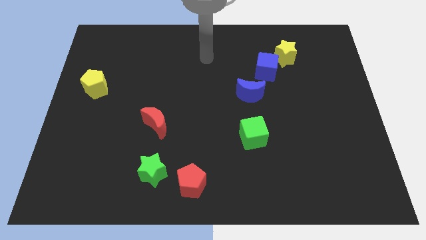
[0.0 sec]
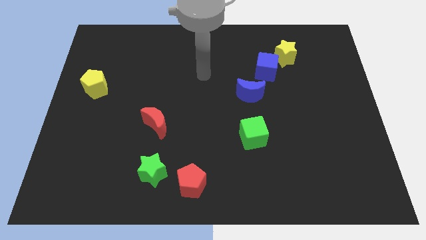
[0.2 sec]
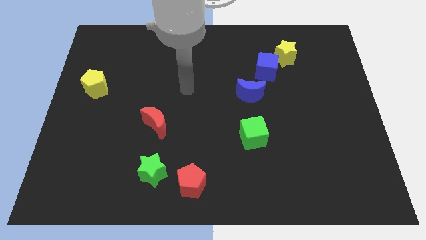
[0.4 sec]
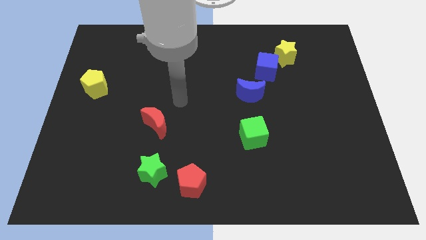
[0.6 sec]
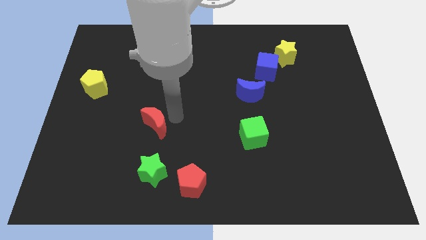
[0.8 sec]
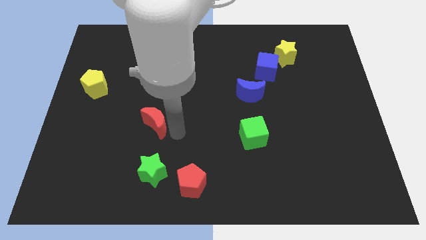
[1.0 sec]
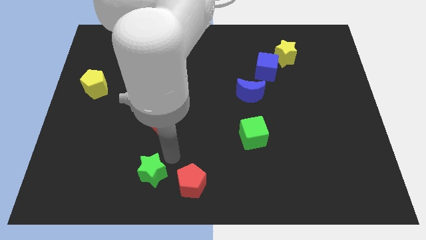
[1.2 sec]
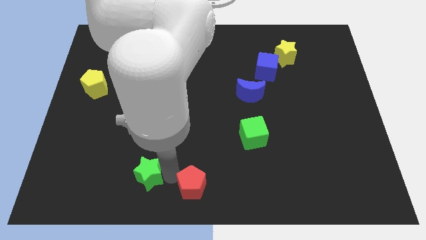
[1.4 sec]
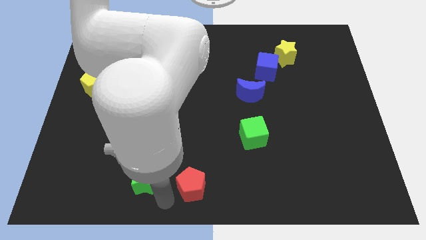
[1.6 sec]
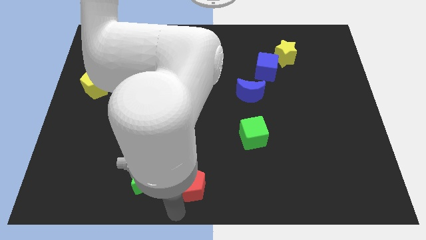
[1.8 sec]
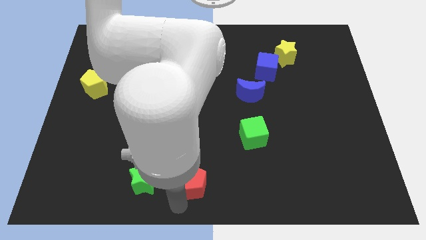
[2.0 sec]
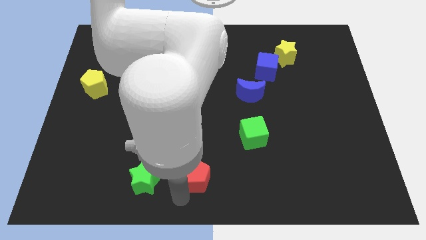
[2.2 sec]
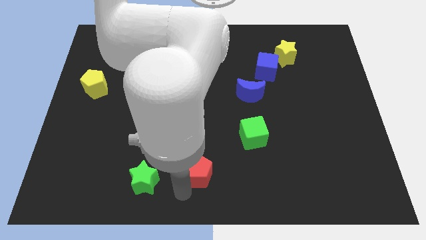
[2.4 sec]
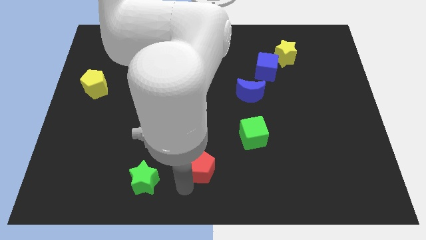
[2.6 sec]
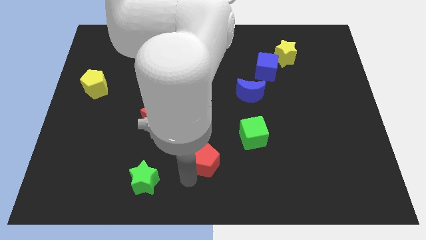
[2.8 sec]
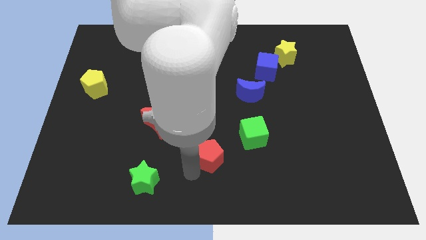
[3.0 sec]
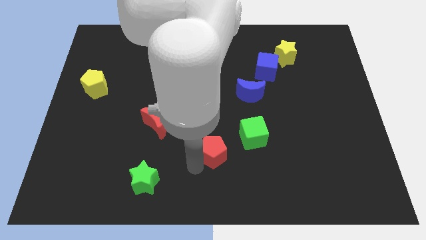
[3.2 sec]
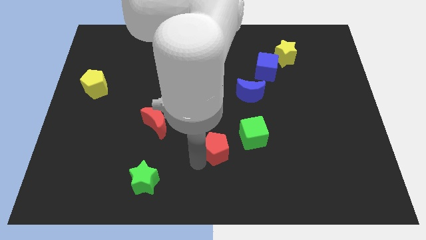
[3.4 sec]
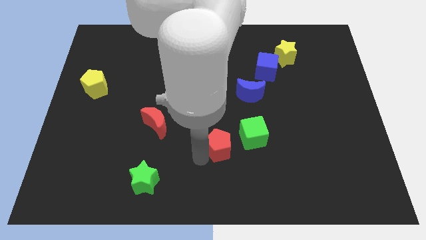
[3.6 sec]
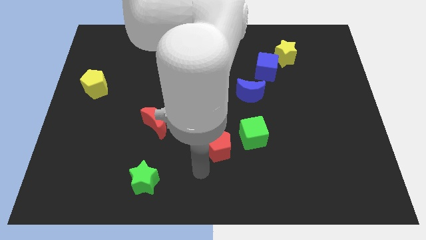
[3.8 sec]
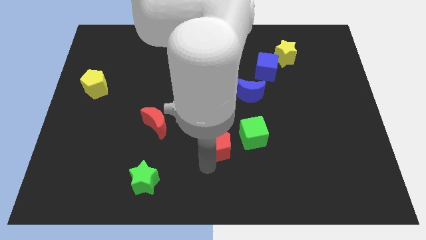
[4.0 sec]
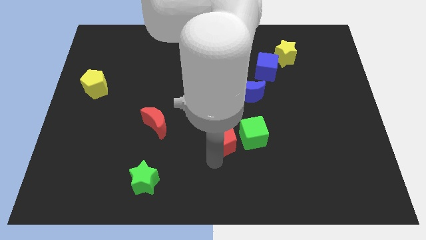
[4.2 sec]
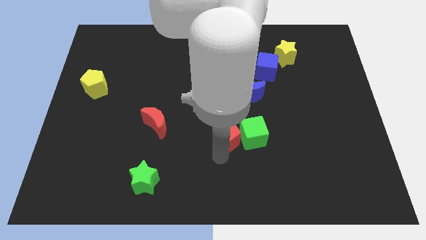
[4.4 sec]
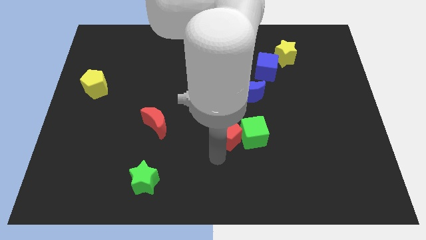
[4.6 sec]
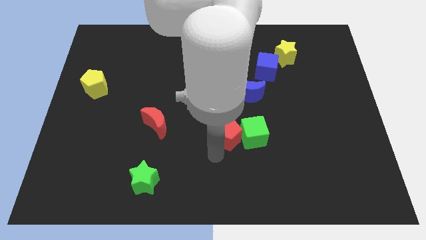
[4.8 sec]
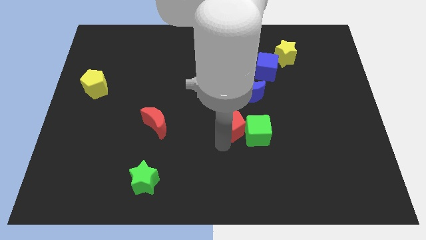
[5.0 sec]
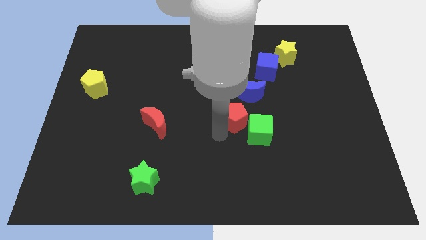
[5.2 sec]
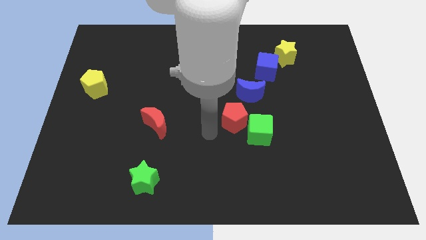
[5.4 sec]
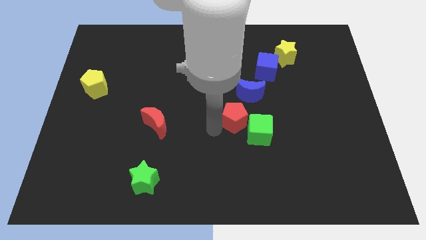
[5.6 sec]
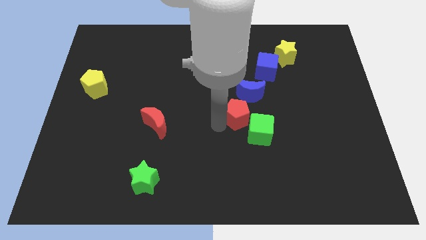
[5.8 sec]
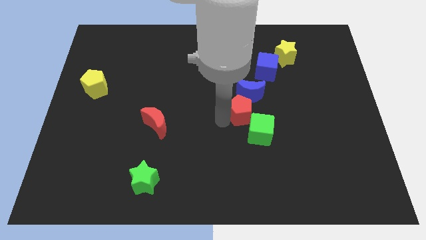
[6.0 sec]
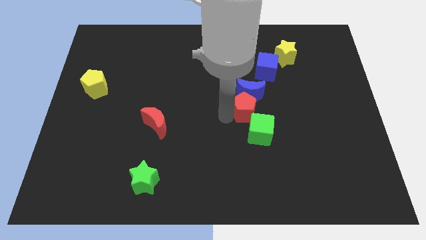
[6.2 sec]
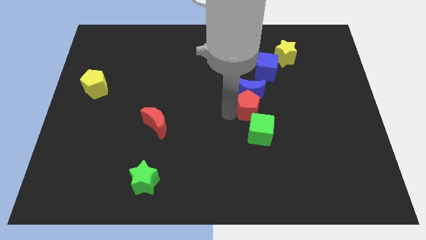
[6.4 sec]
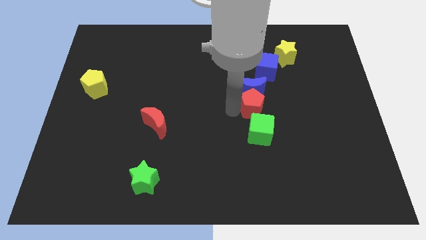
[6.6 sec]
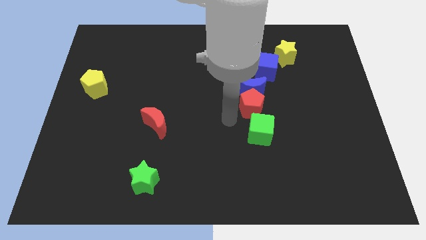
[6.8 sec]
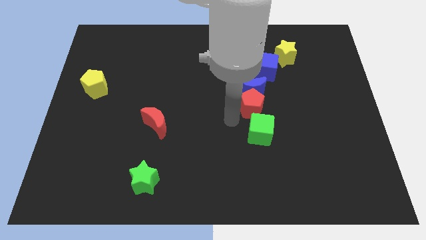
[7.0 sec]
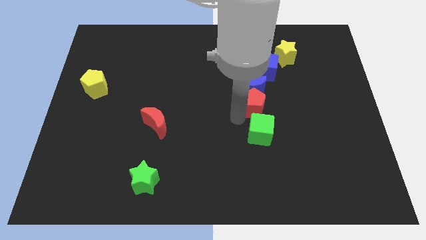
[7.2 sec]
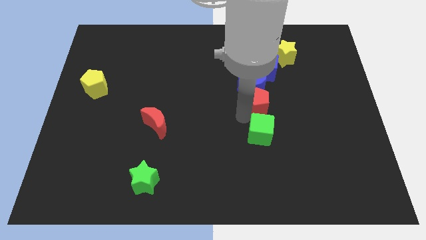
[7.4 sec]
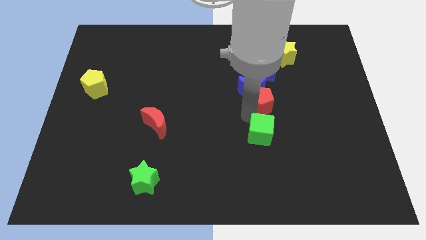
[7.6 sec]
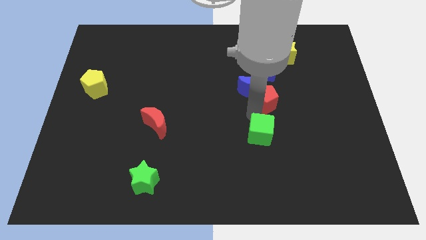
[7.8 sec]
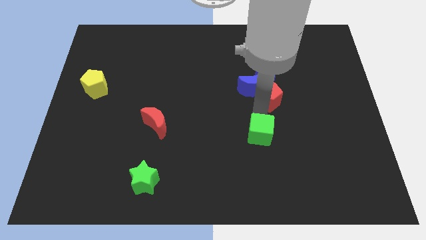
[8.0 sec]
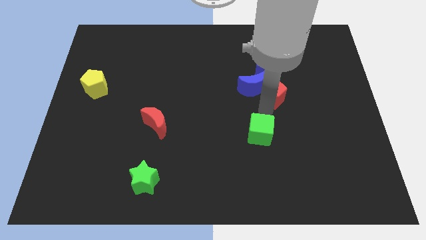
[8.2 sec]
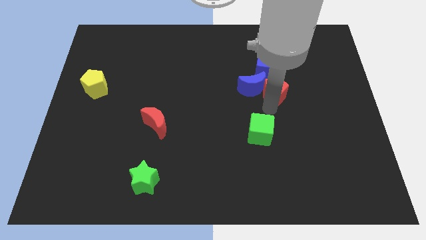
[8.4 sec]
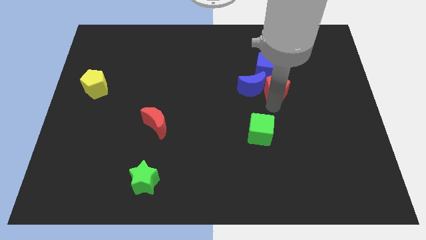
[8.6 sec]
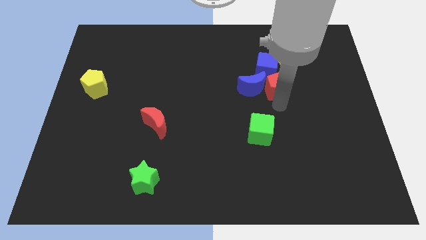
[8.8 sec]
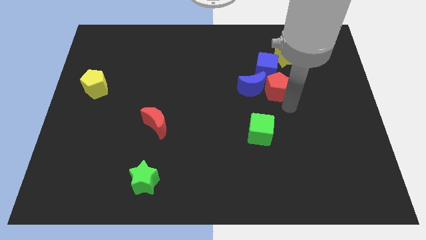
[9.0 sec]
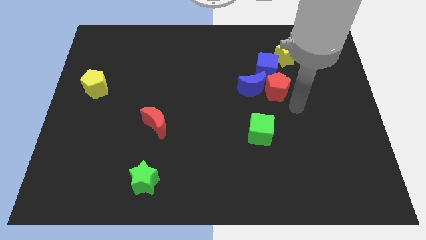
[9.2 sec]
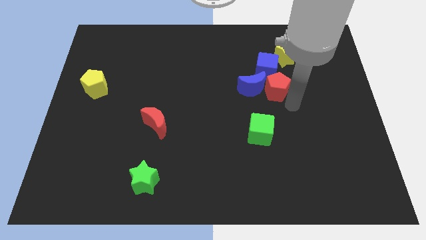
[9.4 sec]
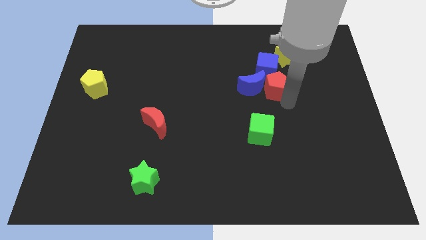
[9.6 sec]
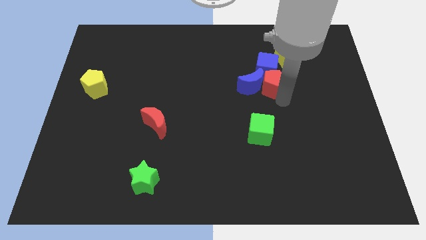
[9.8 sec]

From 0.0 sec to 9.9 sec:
put the red pentagon towards the blue cube

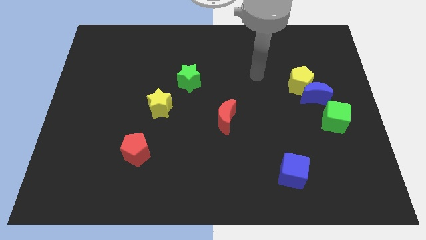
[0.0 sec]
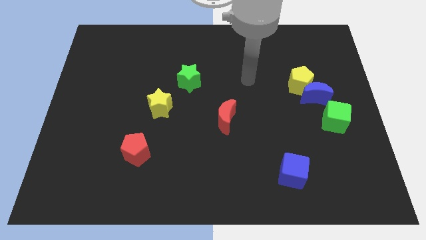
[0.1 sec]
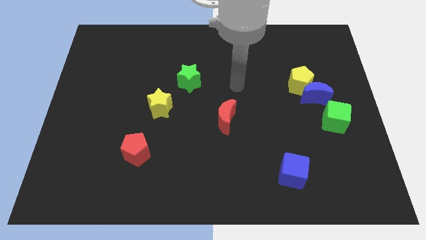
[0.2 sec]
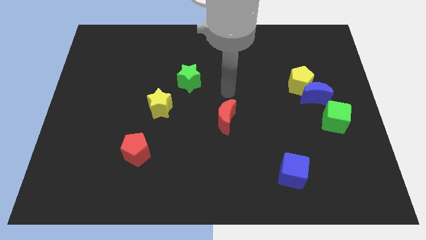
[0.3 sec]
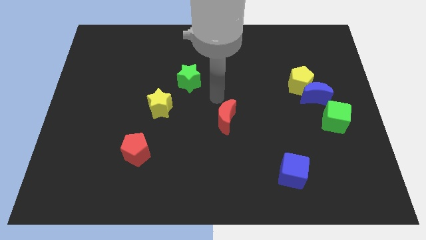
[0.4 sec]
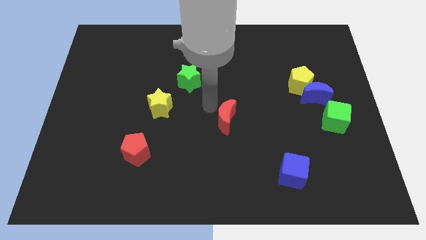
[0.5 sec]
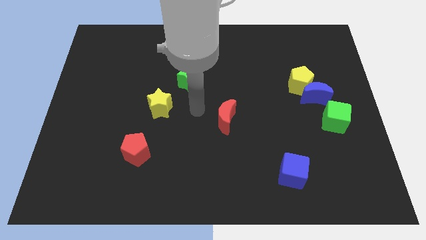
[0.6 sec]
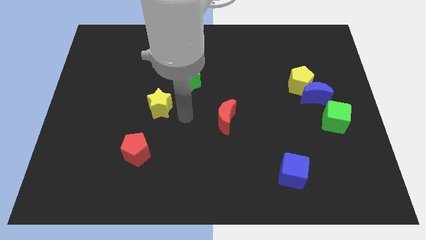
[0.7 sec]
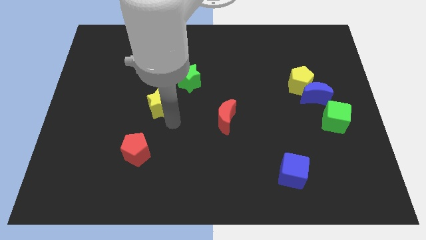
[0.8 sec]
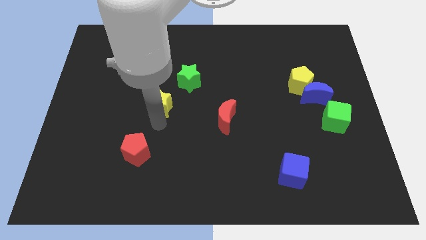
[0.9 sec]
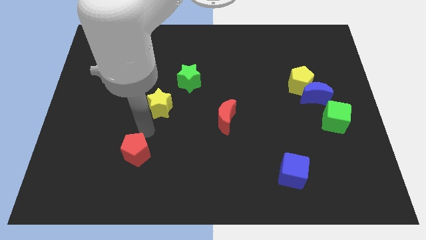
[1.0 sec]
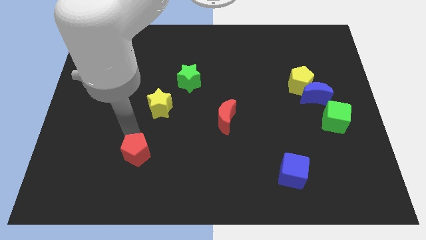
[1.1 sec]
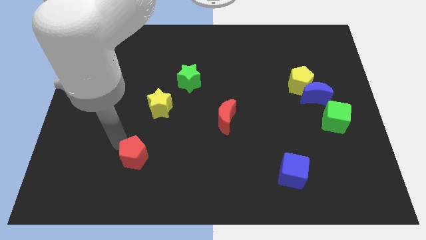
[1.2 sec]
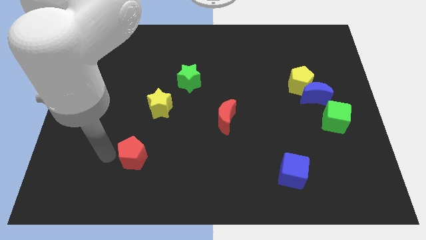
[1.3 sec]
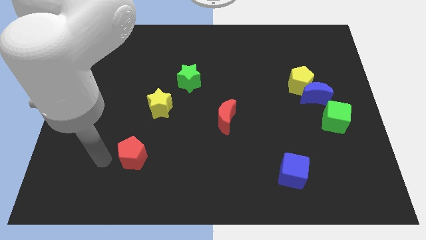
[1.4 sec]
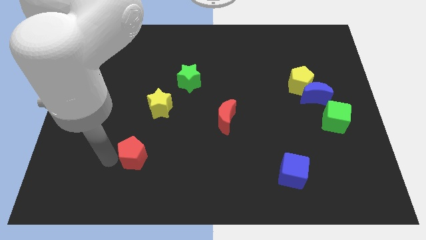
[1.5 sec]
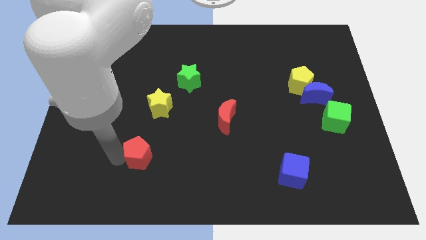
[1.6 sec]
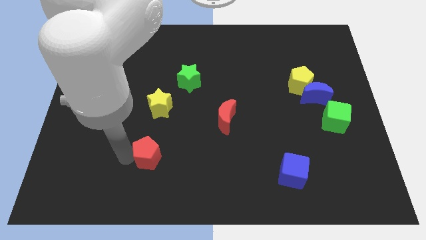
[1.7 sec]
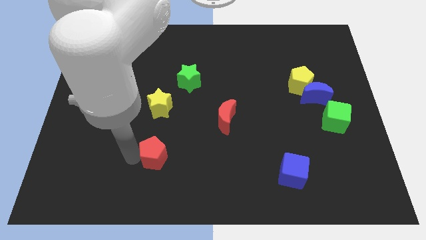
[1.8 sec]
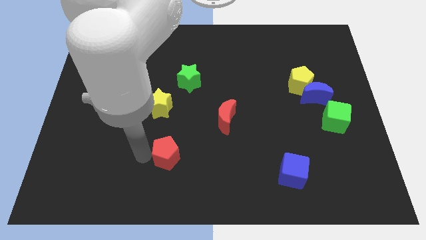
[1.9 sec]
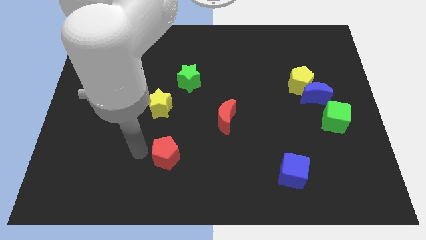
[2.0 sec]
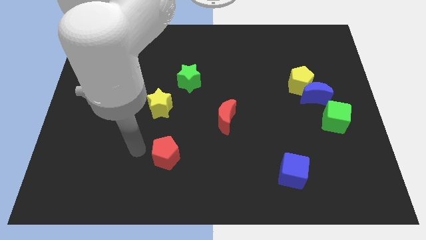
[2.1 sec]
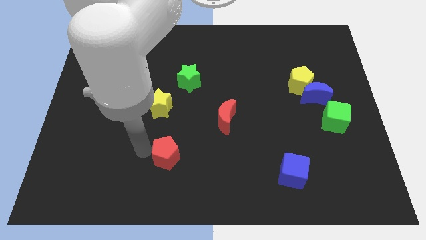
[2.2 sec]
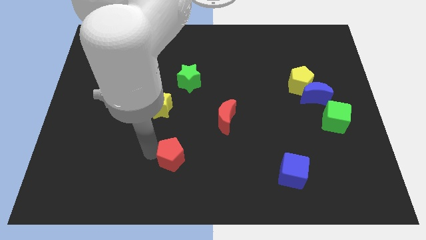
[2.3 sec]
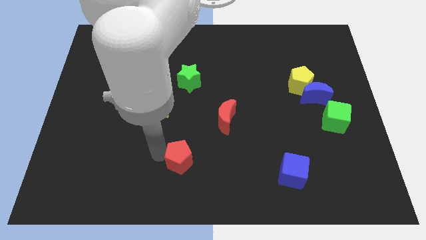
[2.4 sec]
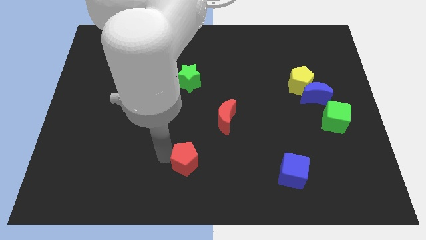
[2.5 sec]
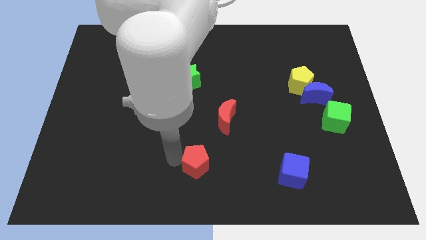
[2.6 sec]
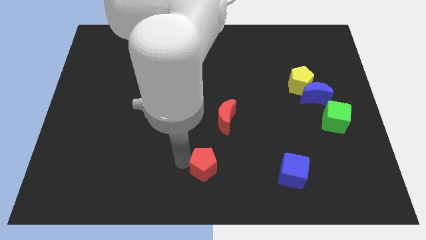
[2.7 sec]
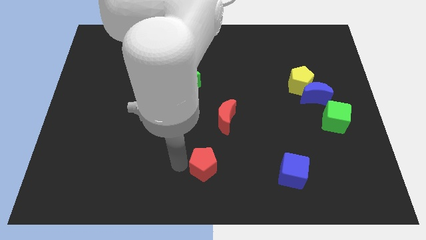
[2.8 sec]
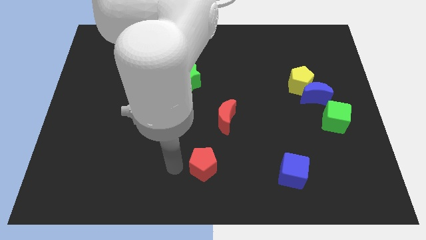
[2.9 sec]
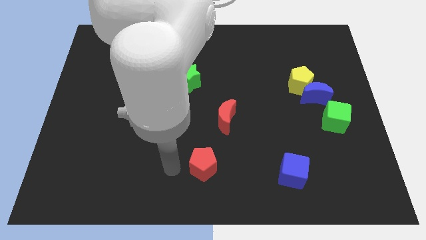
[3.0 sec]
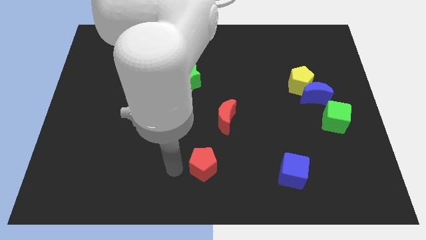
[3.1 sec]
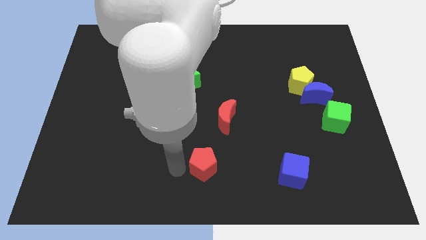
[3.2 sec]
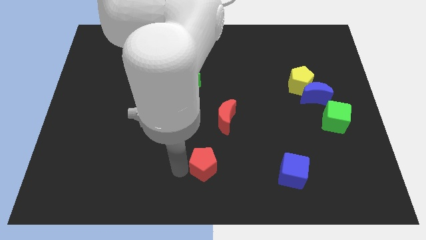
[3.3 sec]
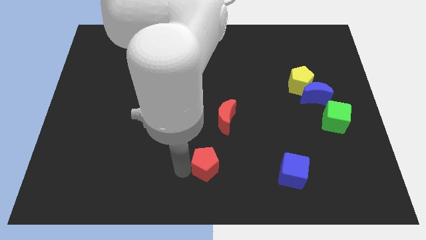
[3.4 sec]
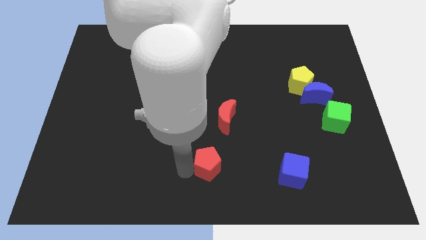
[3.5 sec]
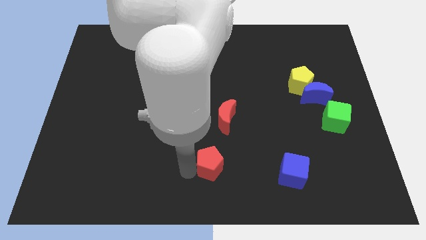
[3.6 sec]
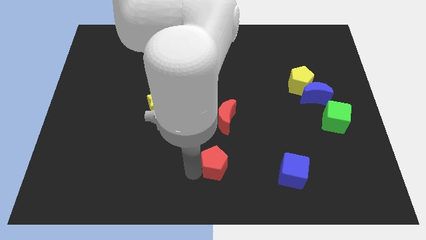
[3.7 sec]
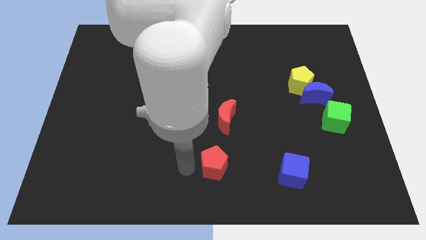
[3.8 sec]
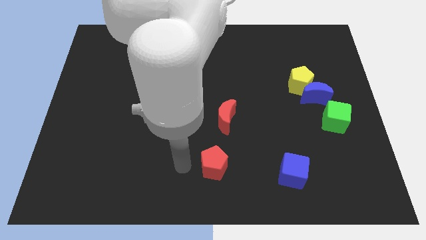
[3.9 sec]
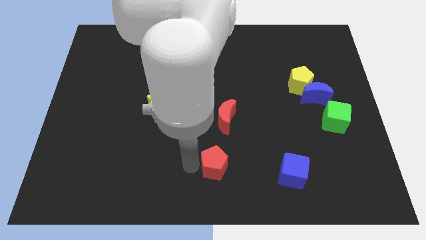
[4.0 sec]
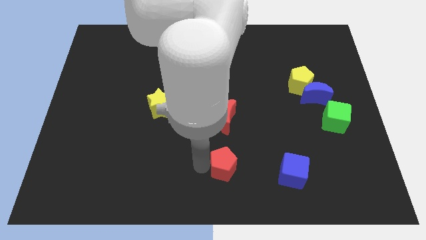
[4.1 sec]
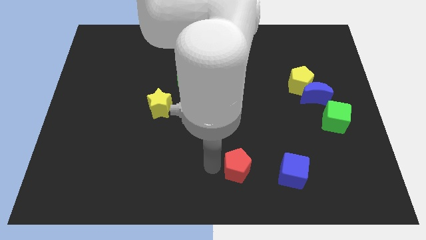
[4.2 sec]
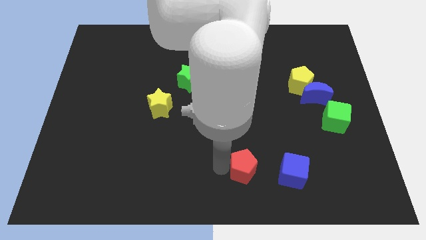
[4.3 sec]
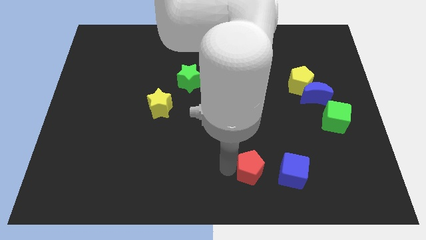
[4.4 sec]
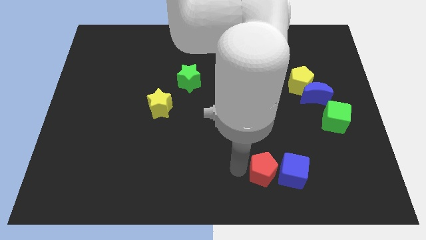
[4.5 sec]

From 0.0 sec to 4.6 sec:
move the red pentagon to the blue cube
